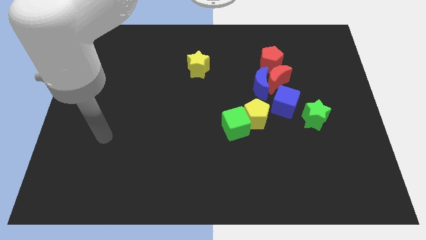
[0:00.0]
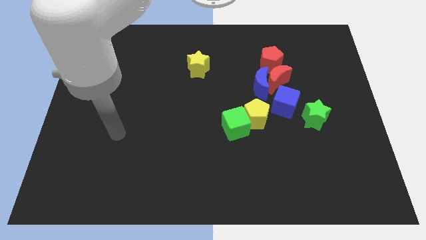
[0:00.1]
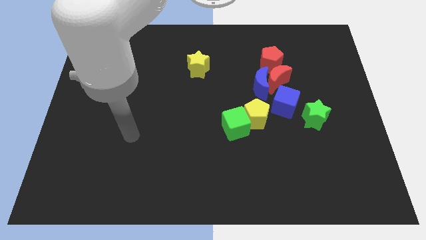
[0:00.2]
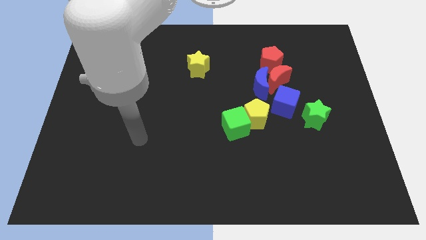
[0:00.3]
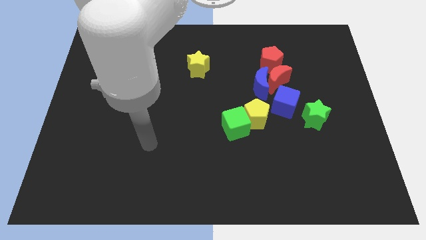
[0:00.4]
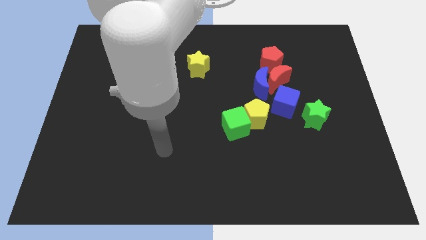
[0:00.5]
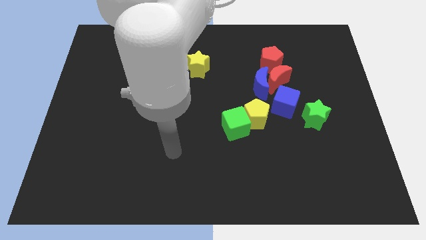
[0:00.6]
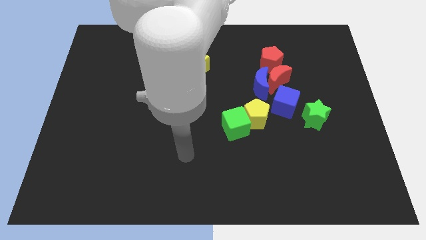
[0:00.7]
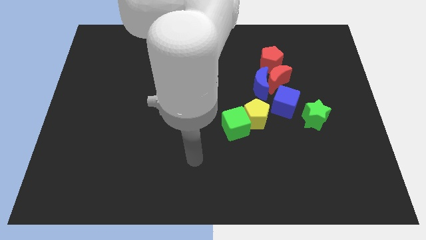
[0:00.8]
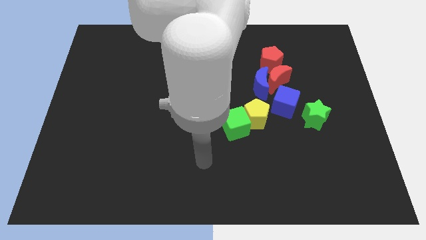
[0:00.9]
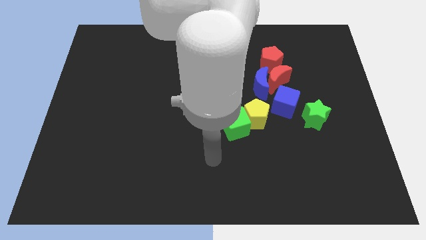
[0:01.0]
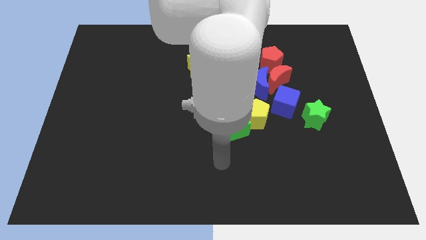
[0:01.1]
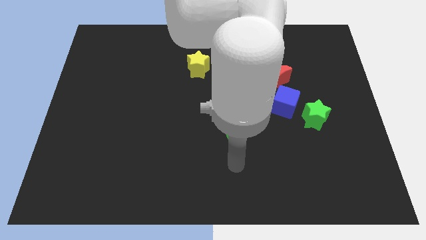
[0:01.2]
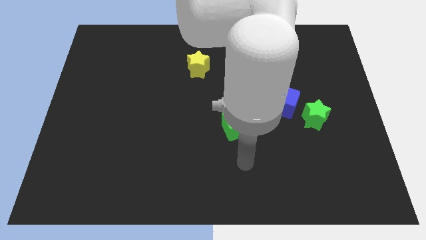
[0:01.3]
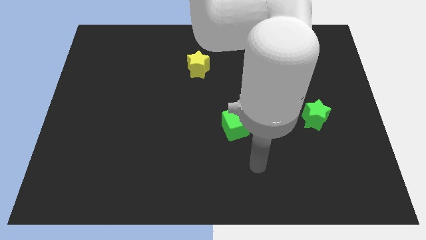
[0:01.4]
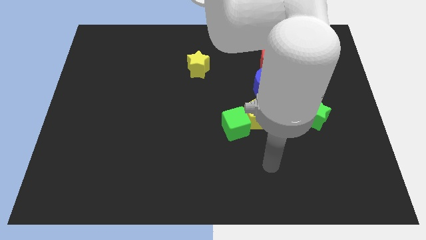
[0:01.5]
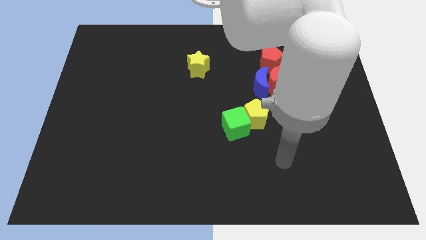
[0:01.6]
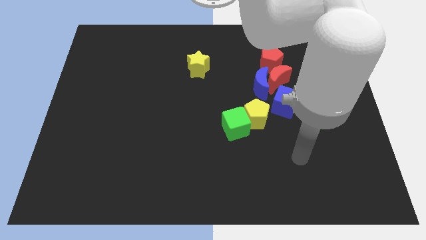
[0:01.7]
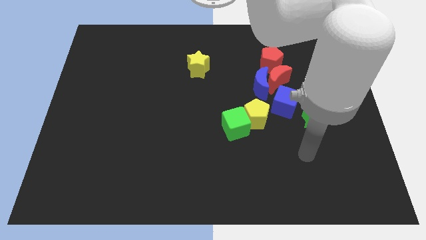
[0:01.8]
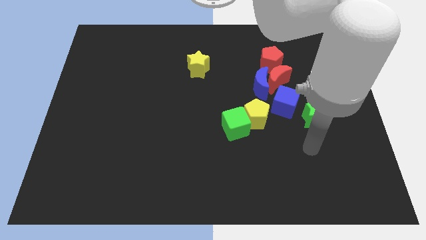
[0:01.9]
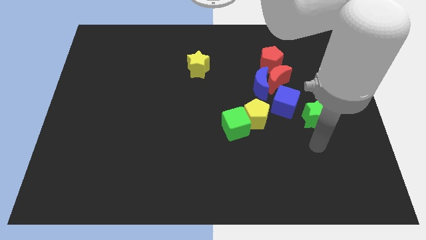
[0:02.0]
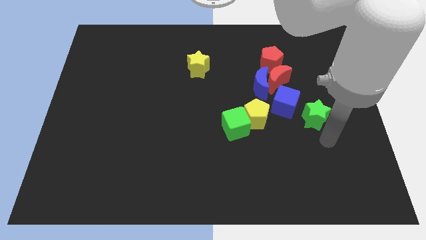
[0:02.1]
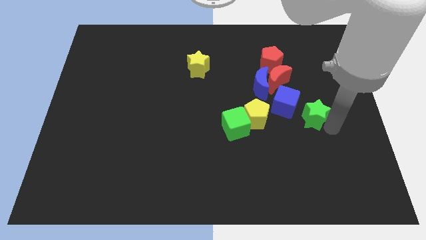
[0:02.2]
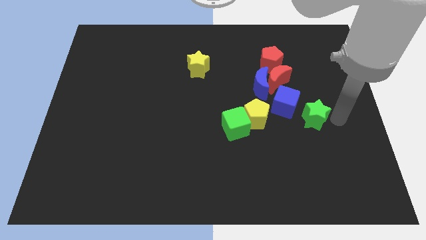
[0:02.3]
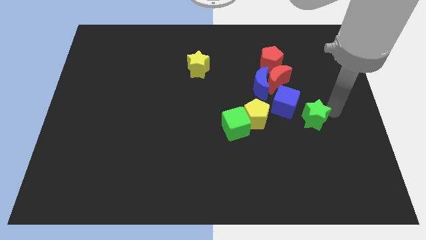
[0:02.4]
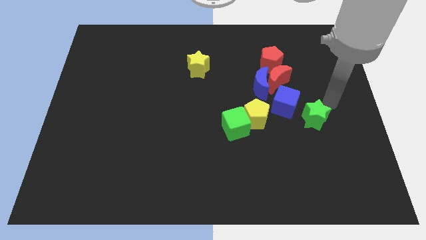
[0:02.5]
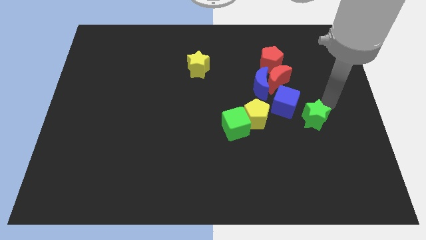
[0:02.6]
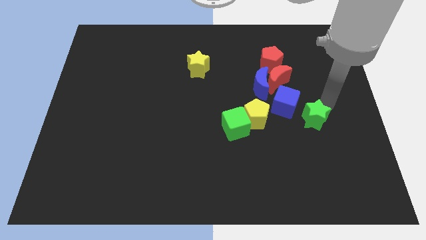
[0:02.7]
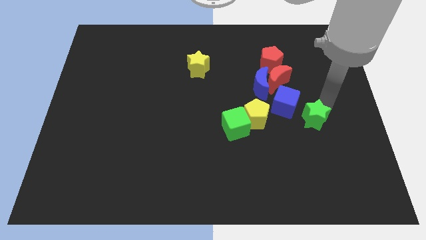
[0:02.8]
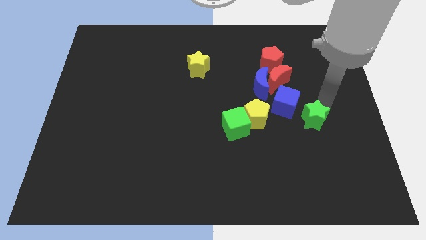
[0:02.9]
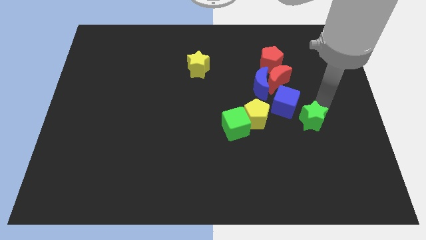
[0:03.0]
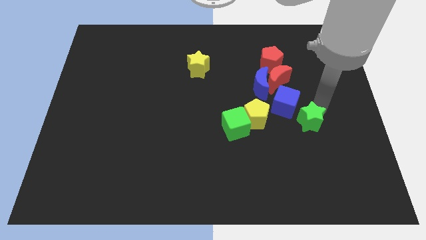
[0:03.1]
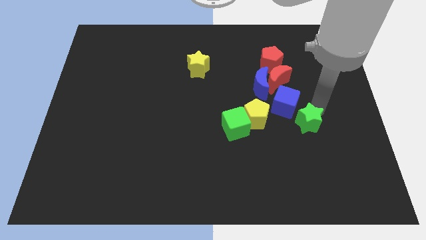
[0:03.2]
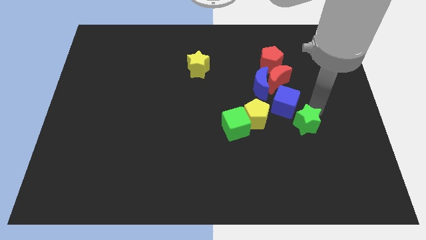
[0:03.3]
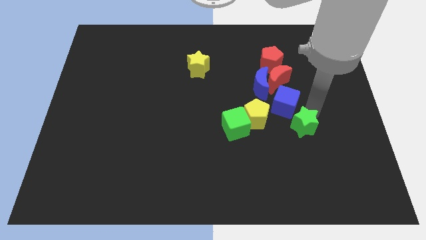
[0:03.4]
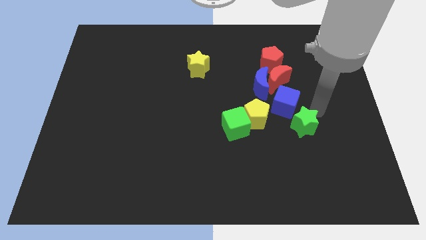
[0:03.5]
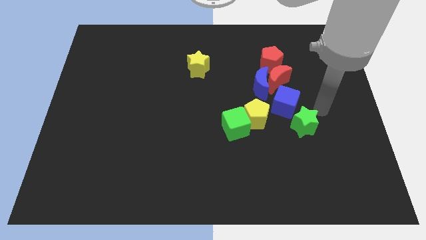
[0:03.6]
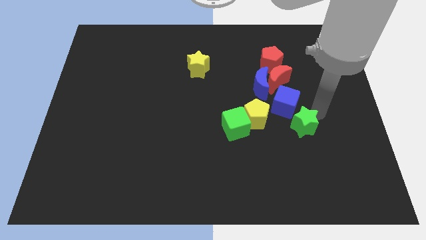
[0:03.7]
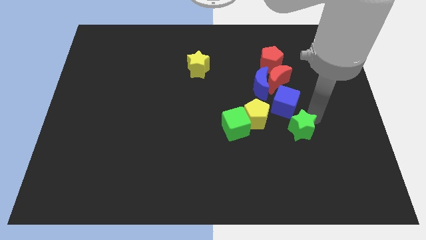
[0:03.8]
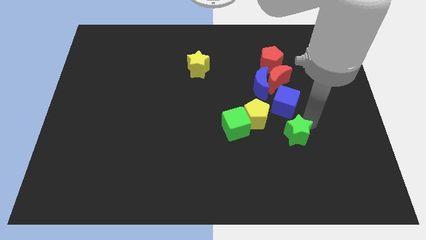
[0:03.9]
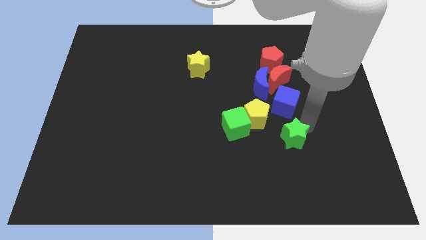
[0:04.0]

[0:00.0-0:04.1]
slightly move the green star down and left

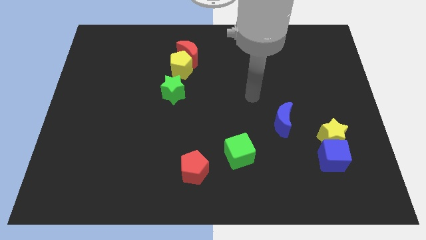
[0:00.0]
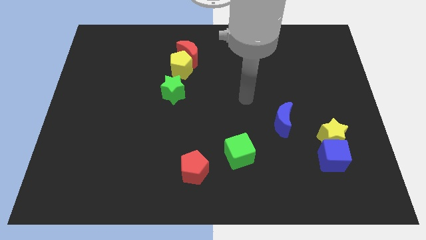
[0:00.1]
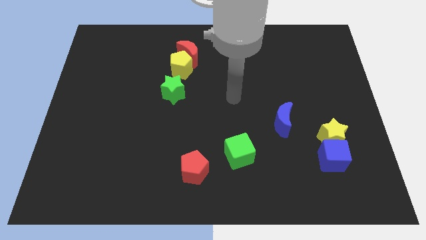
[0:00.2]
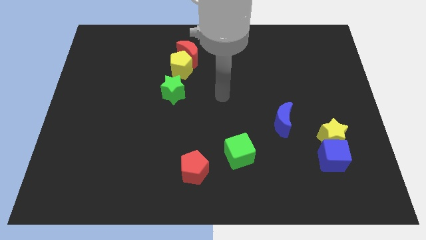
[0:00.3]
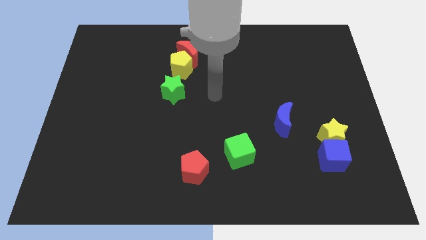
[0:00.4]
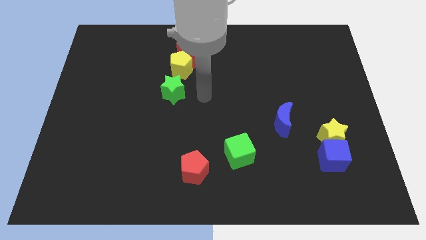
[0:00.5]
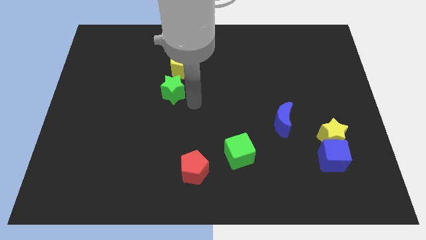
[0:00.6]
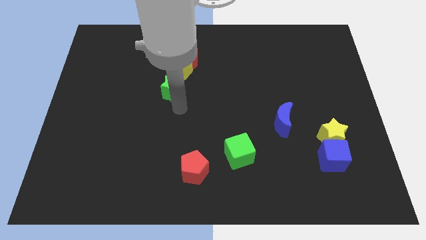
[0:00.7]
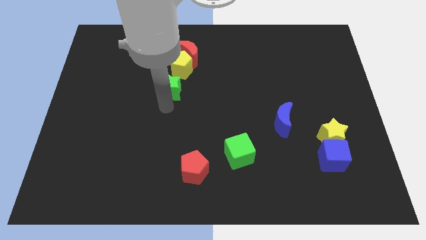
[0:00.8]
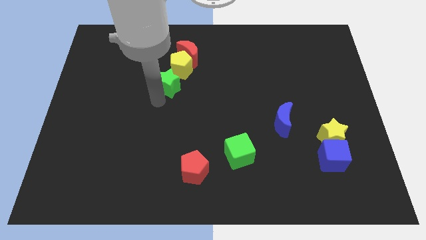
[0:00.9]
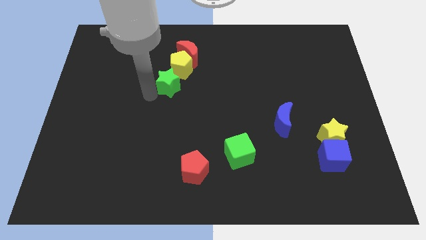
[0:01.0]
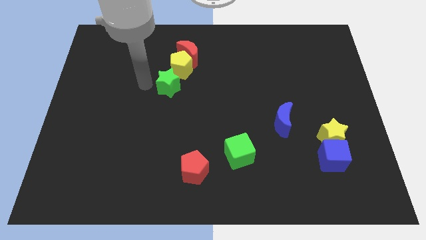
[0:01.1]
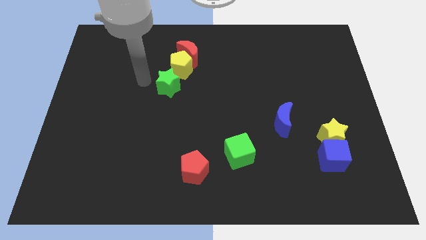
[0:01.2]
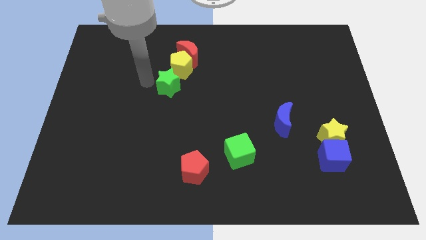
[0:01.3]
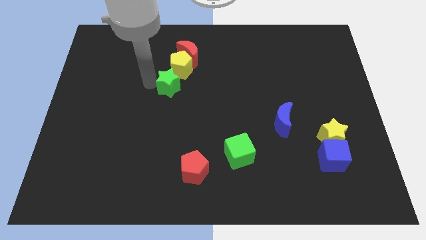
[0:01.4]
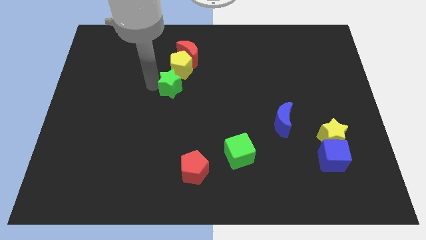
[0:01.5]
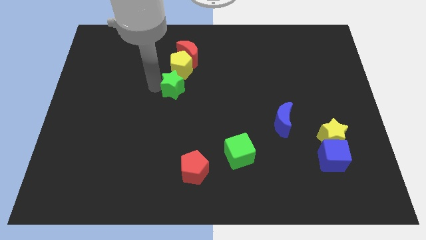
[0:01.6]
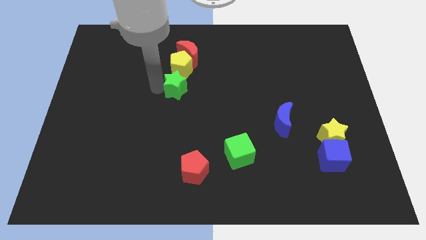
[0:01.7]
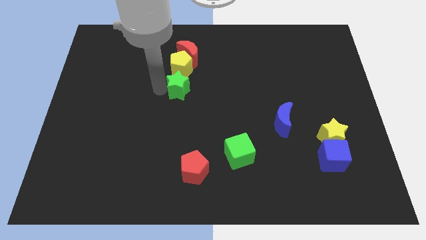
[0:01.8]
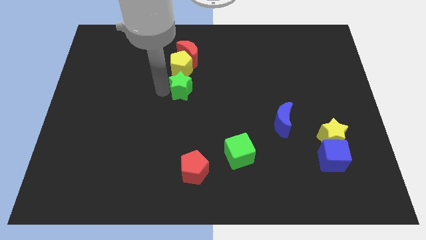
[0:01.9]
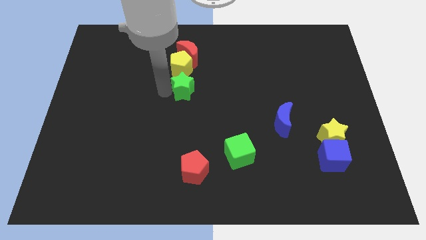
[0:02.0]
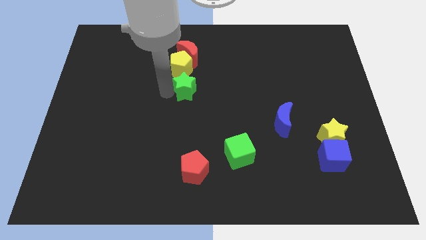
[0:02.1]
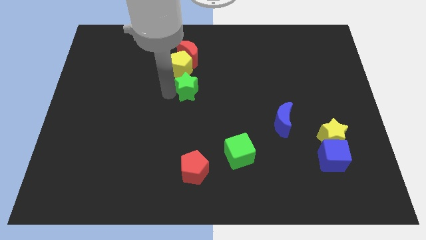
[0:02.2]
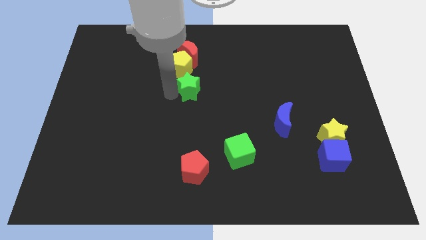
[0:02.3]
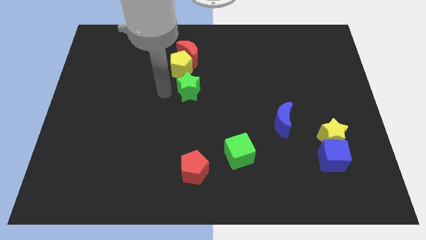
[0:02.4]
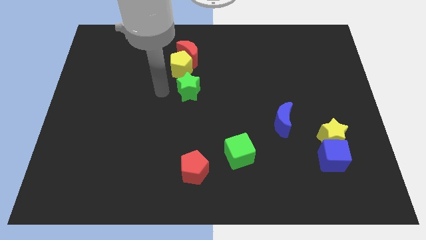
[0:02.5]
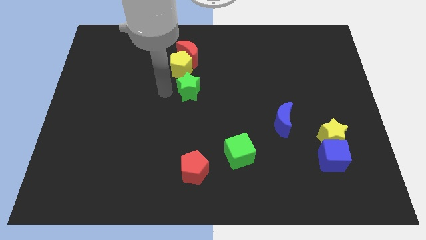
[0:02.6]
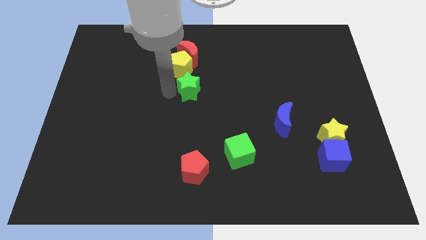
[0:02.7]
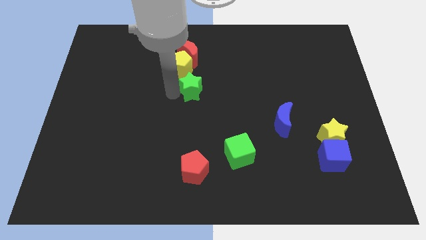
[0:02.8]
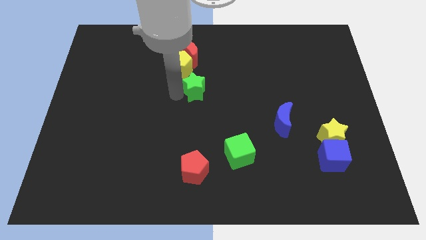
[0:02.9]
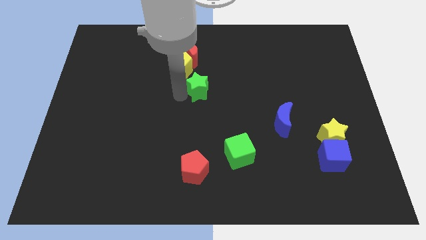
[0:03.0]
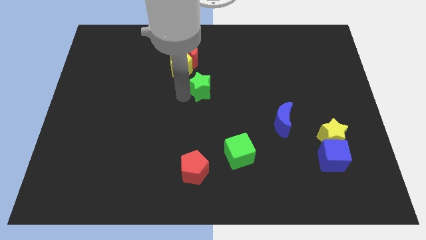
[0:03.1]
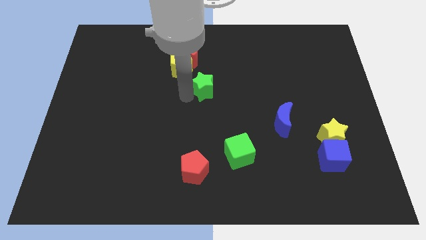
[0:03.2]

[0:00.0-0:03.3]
move the green star right slightly

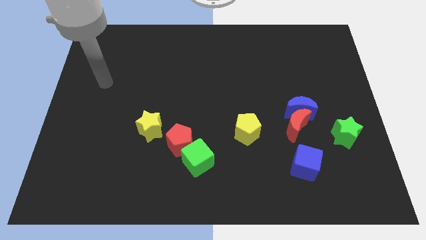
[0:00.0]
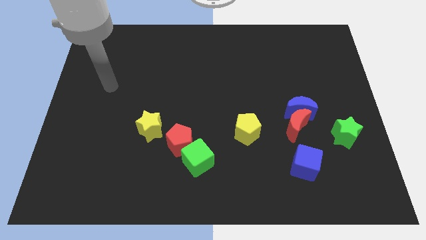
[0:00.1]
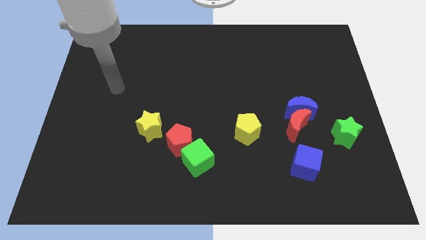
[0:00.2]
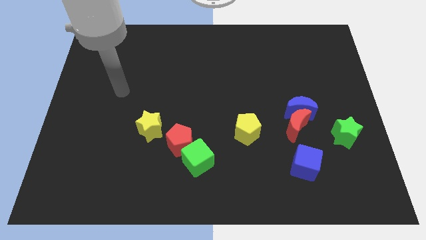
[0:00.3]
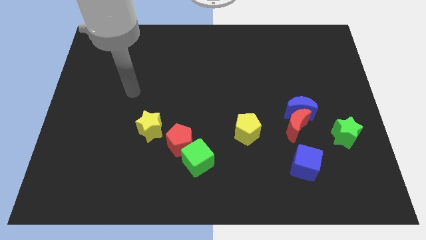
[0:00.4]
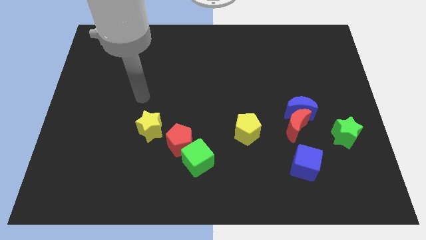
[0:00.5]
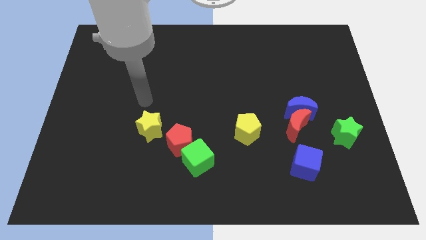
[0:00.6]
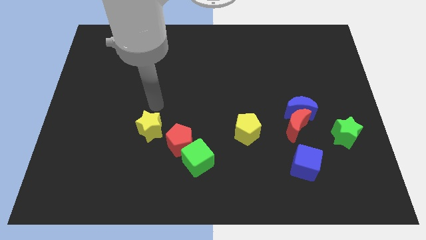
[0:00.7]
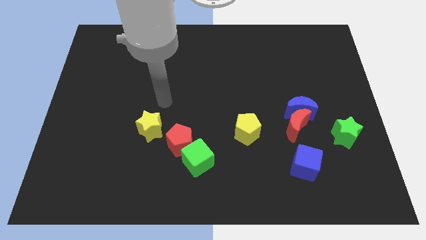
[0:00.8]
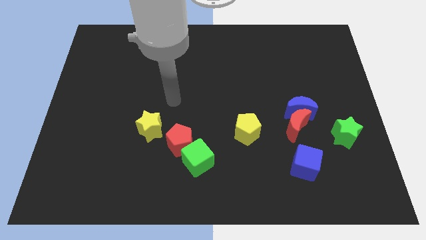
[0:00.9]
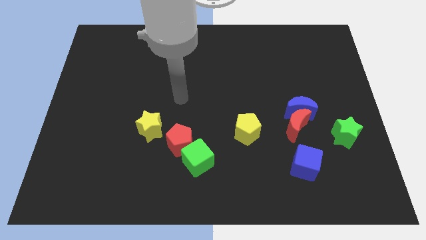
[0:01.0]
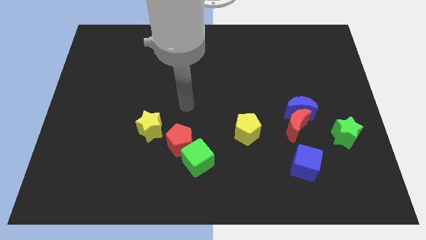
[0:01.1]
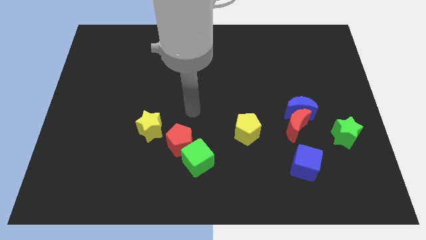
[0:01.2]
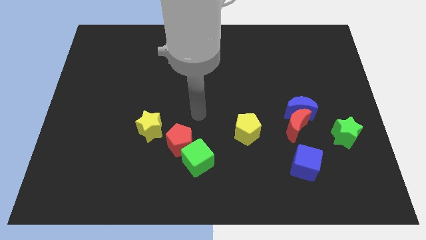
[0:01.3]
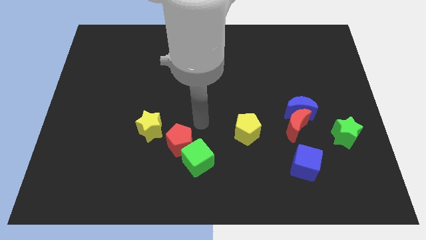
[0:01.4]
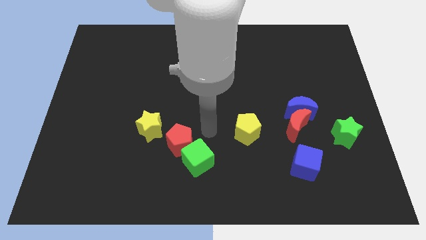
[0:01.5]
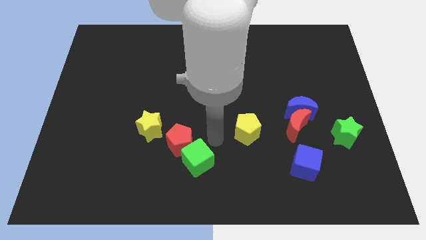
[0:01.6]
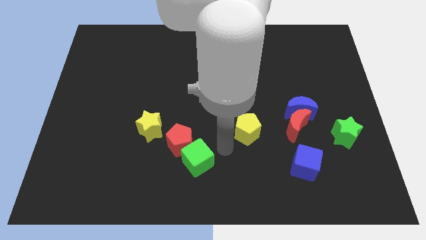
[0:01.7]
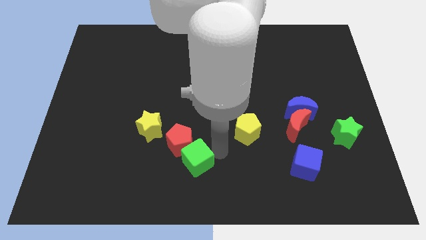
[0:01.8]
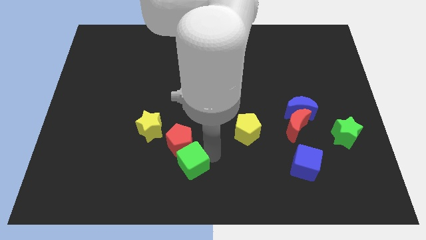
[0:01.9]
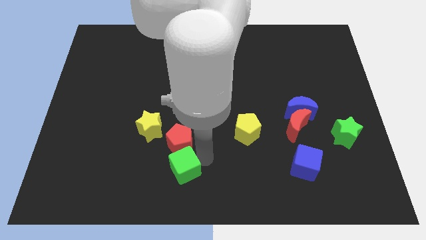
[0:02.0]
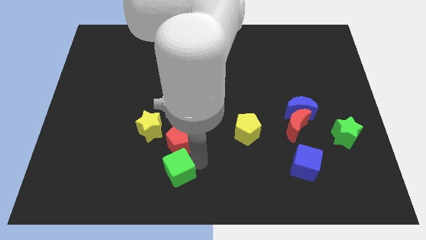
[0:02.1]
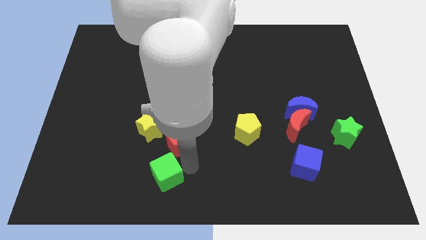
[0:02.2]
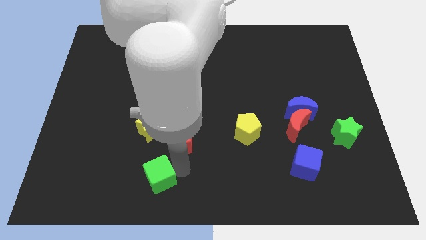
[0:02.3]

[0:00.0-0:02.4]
move the green cube slightly to the left
